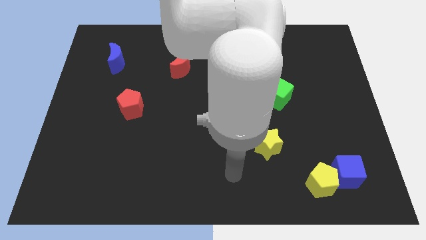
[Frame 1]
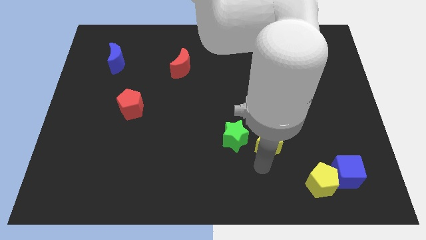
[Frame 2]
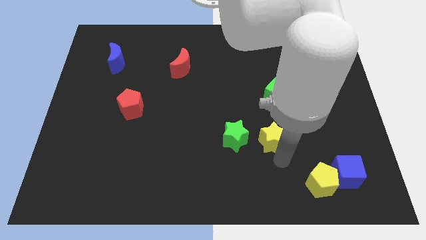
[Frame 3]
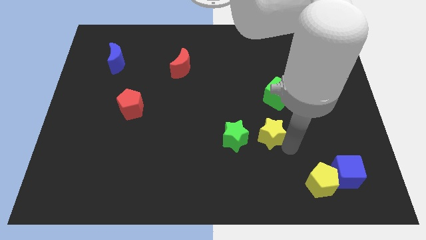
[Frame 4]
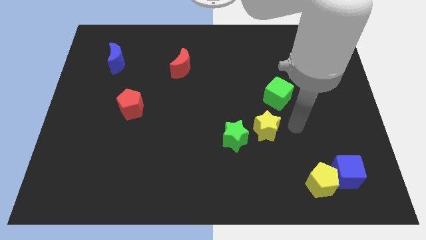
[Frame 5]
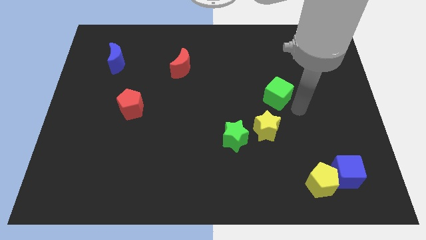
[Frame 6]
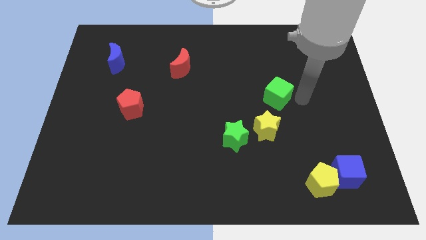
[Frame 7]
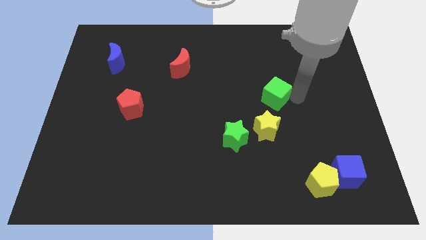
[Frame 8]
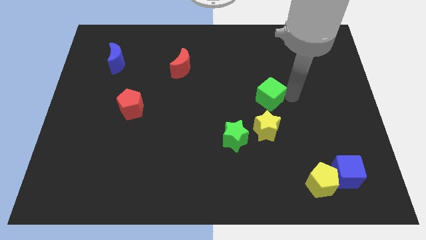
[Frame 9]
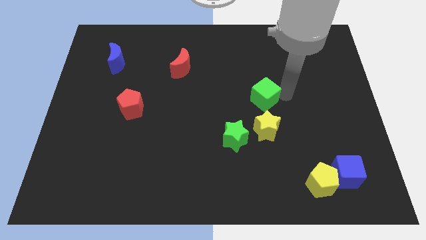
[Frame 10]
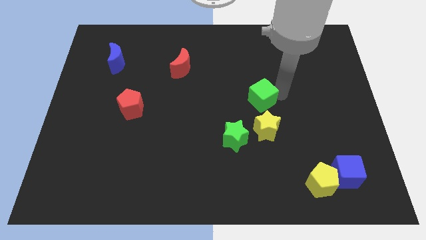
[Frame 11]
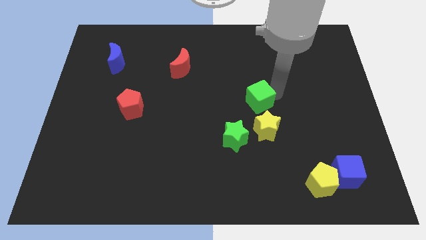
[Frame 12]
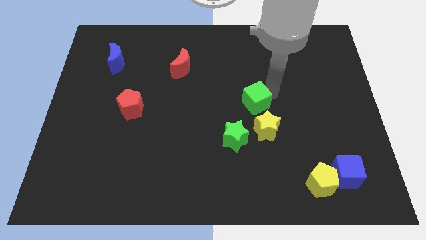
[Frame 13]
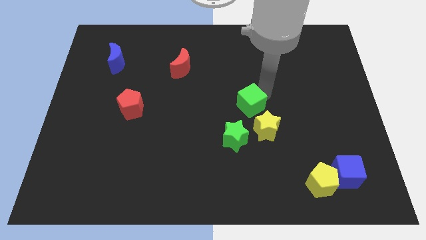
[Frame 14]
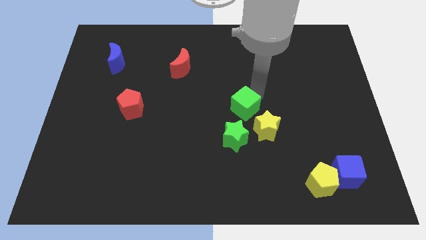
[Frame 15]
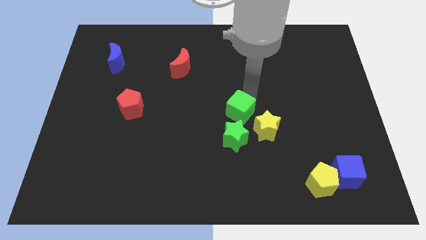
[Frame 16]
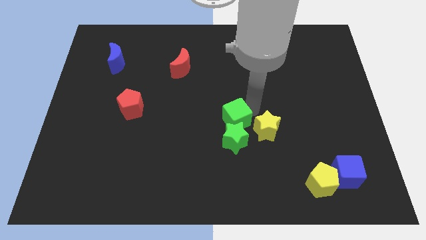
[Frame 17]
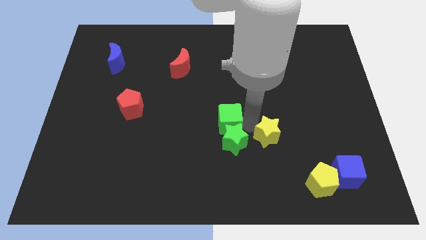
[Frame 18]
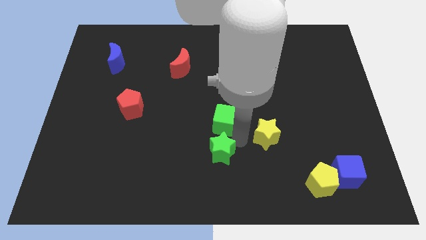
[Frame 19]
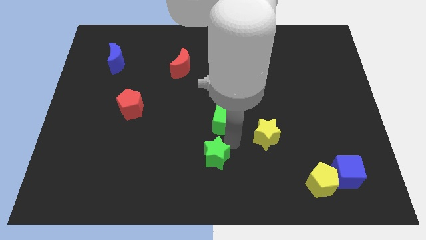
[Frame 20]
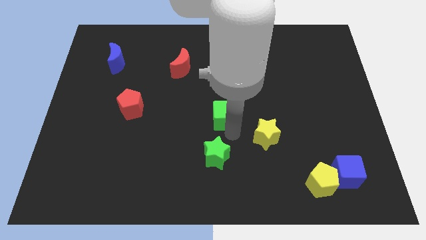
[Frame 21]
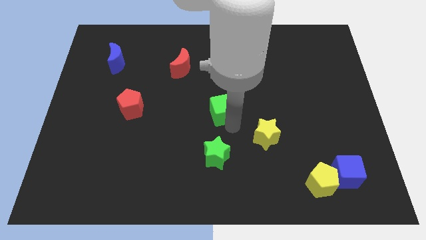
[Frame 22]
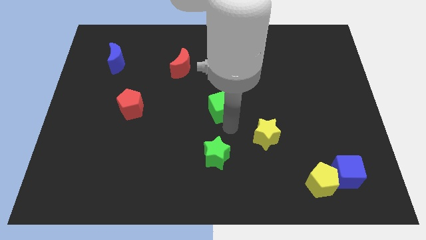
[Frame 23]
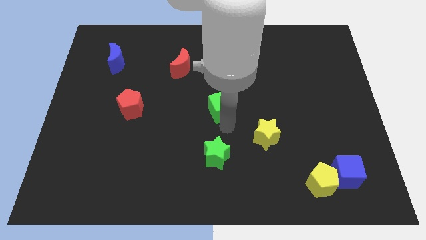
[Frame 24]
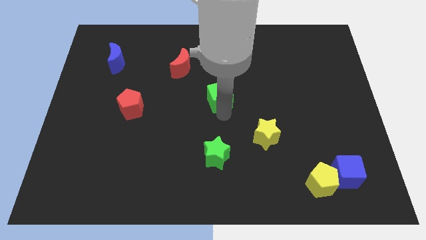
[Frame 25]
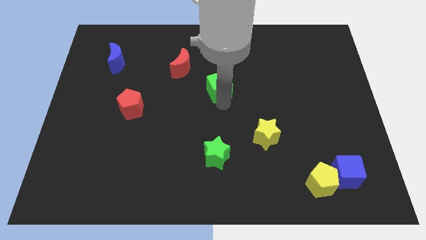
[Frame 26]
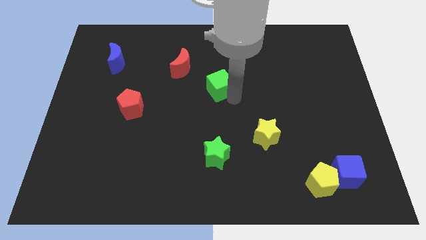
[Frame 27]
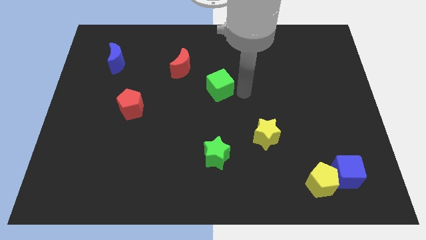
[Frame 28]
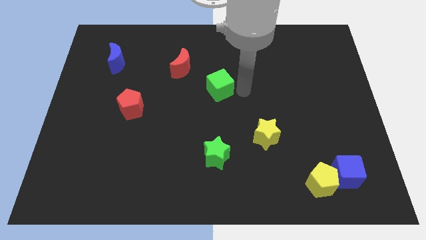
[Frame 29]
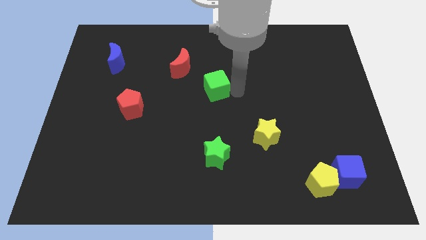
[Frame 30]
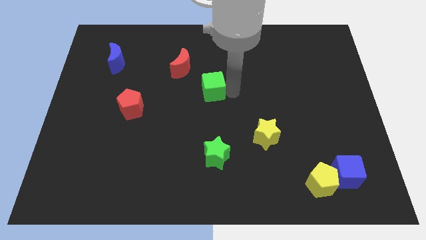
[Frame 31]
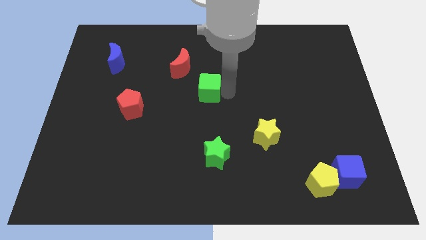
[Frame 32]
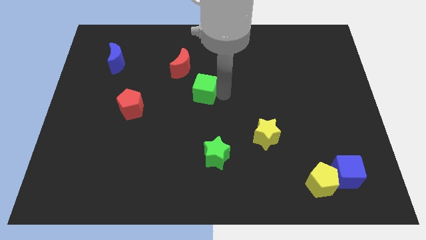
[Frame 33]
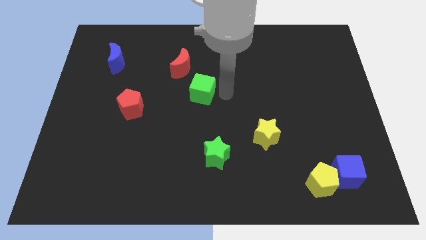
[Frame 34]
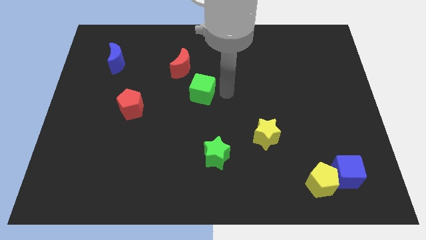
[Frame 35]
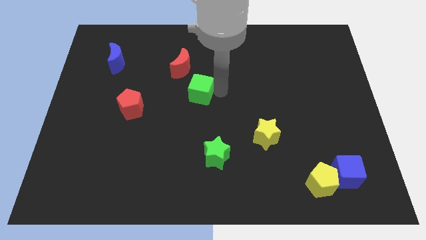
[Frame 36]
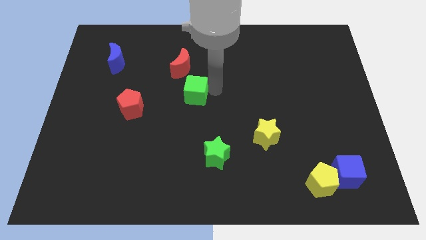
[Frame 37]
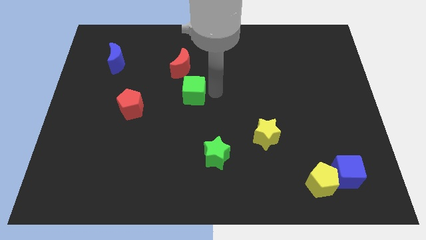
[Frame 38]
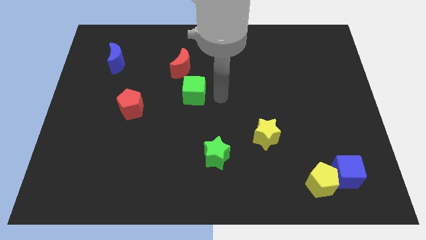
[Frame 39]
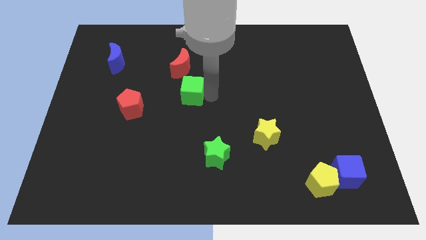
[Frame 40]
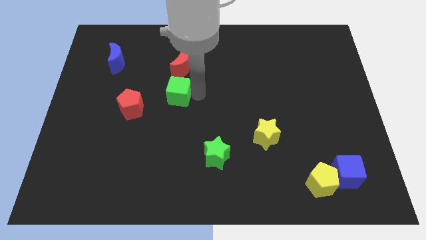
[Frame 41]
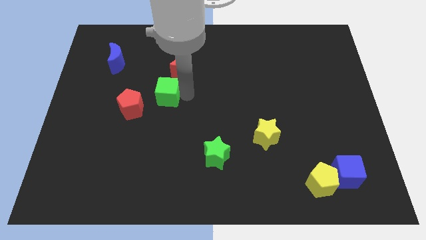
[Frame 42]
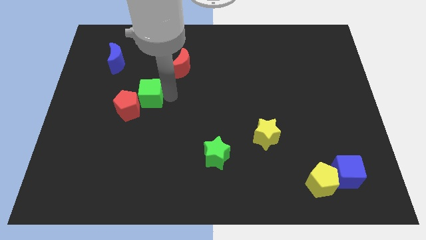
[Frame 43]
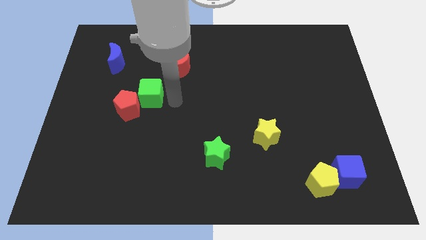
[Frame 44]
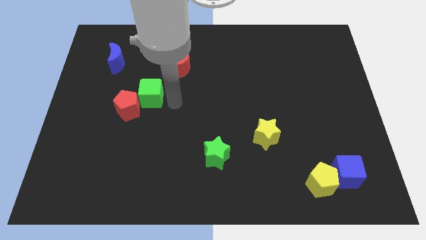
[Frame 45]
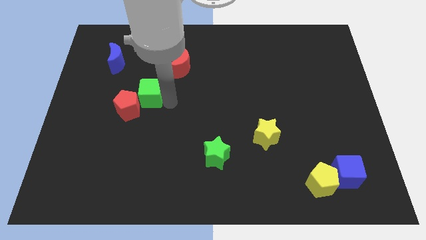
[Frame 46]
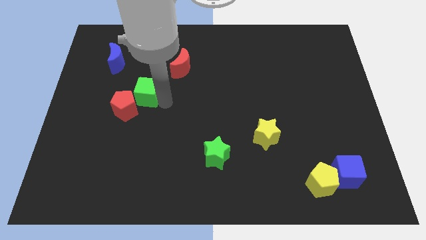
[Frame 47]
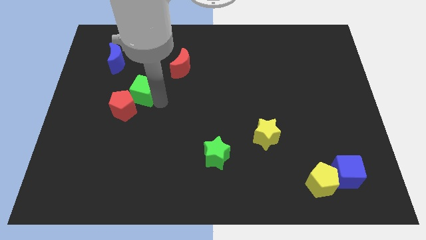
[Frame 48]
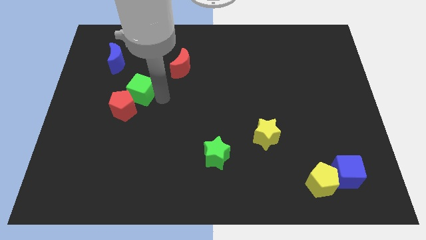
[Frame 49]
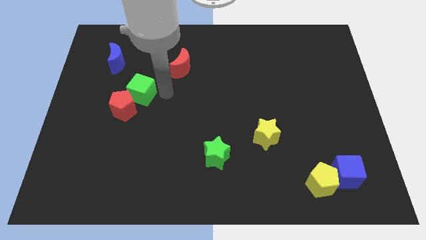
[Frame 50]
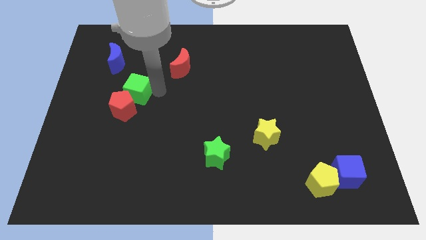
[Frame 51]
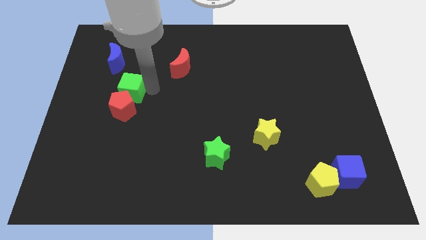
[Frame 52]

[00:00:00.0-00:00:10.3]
put the green cube to the top left of the red pentagon

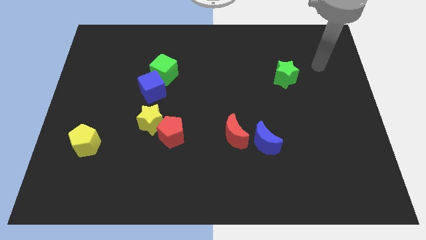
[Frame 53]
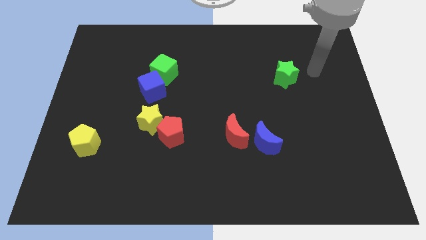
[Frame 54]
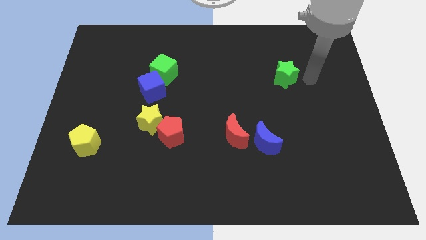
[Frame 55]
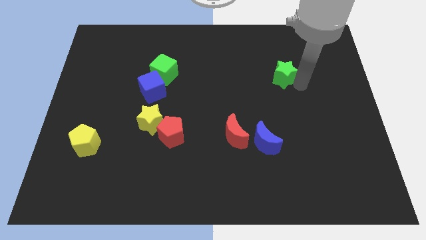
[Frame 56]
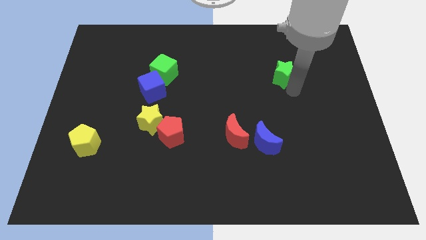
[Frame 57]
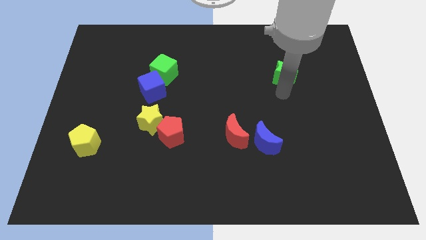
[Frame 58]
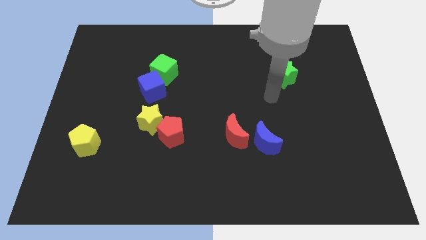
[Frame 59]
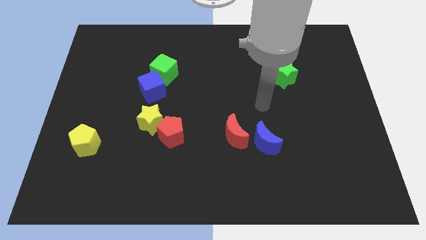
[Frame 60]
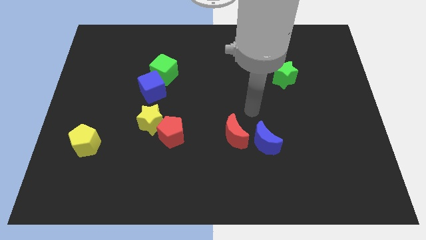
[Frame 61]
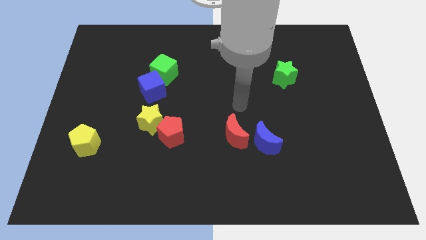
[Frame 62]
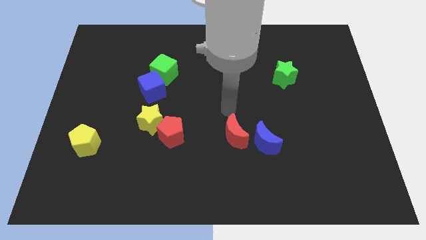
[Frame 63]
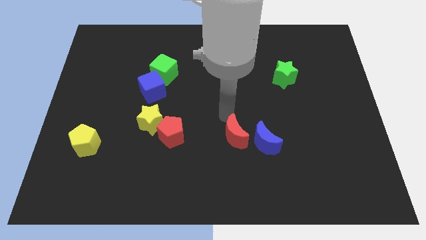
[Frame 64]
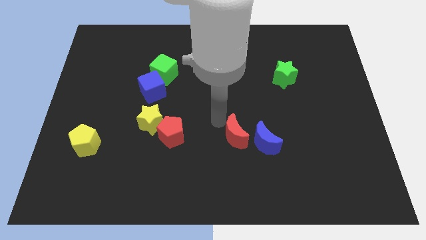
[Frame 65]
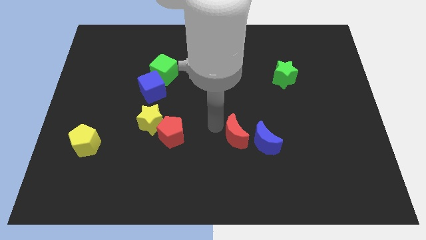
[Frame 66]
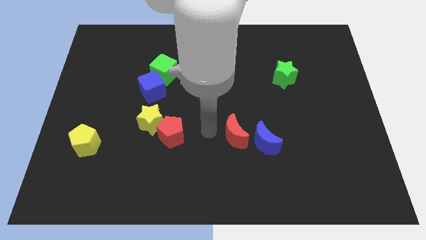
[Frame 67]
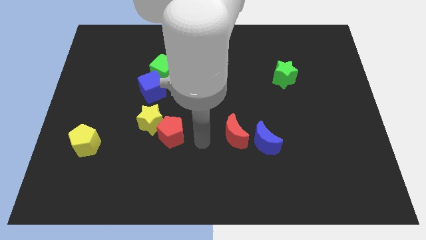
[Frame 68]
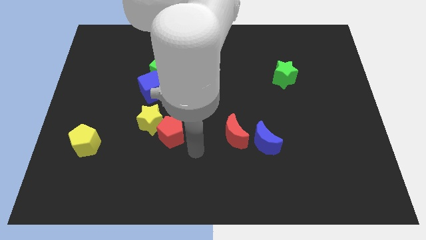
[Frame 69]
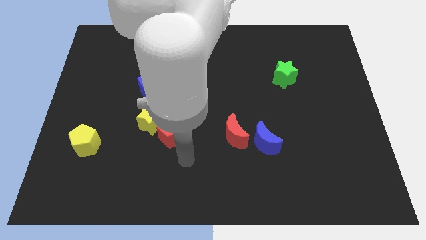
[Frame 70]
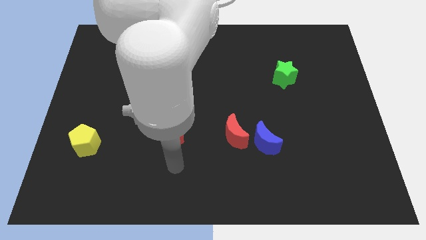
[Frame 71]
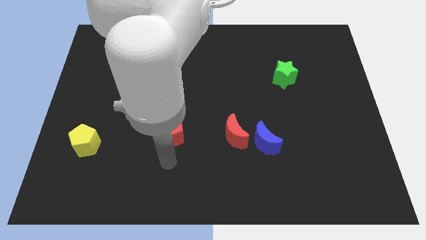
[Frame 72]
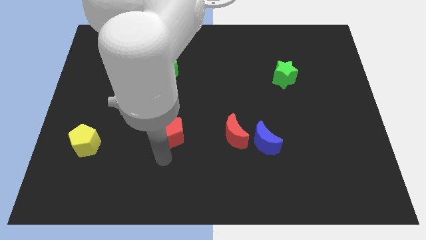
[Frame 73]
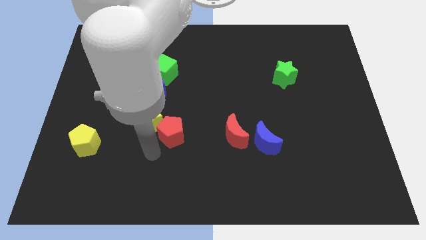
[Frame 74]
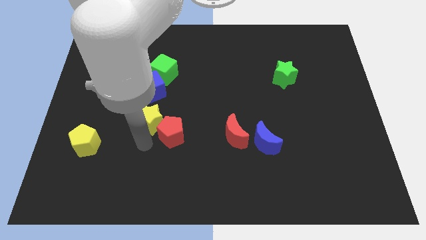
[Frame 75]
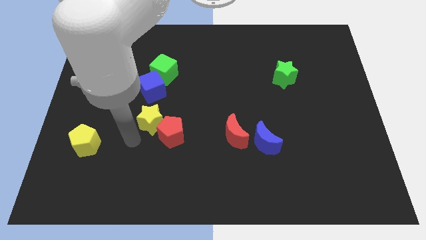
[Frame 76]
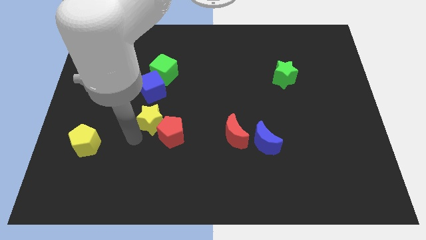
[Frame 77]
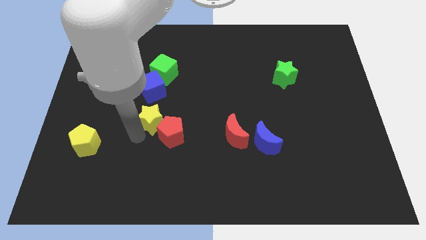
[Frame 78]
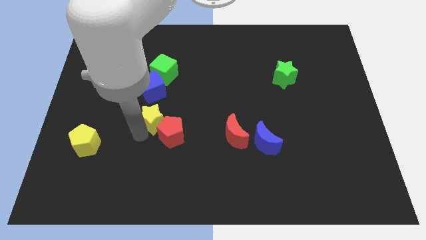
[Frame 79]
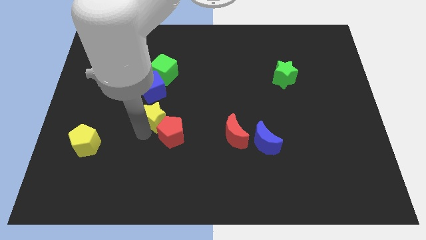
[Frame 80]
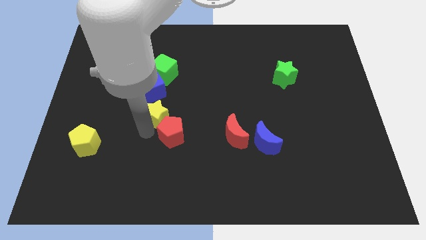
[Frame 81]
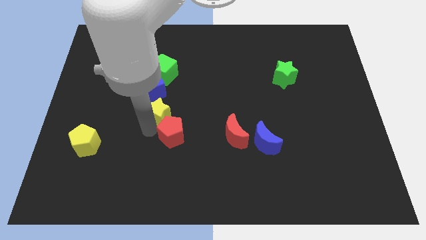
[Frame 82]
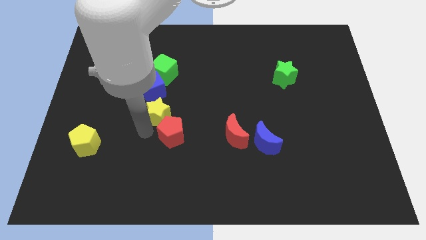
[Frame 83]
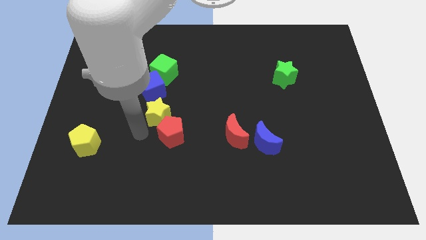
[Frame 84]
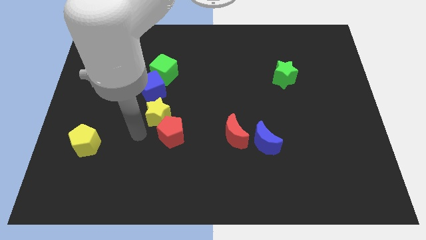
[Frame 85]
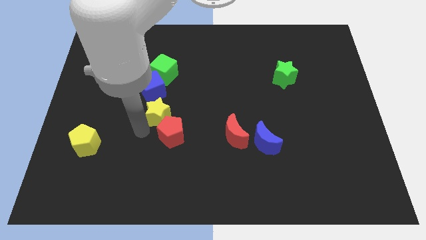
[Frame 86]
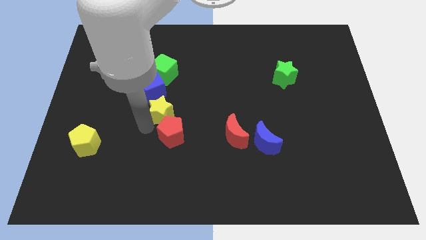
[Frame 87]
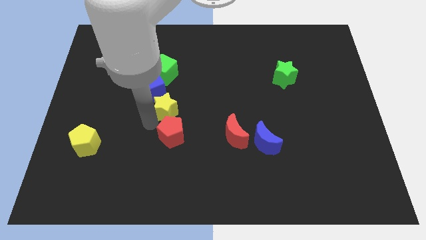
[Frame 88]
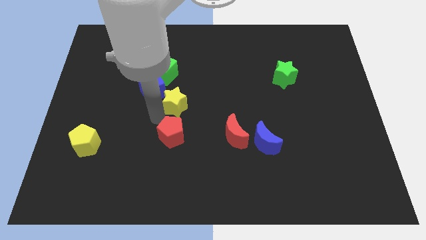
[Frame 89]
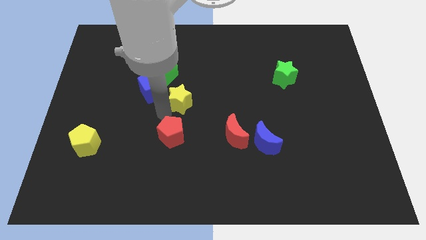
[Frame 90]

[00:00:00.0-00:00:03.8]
put the yellow star diagonally down and to the right of the green cube
